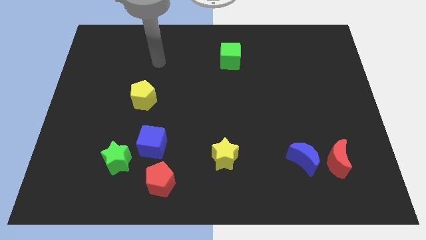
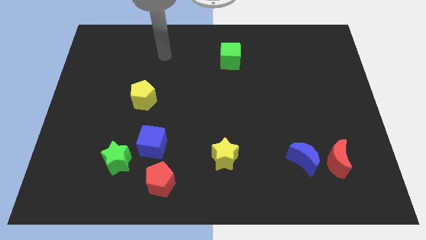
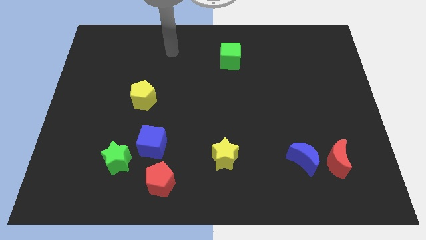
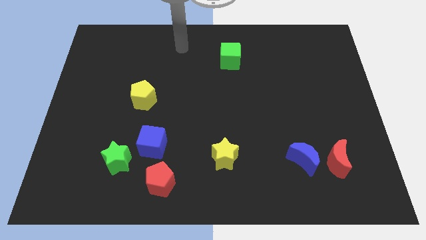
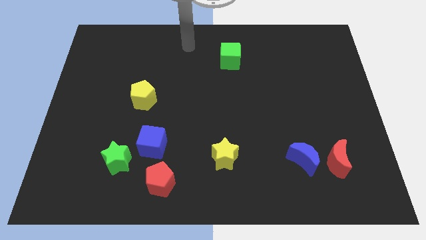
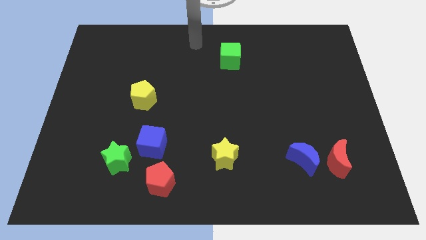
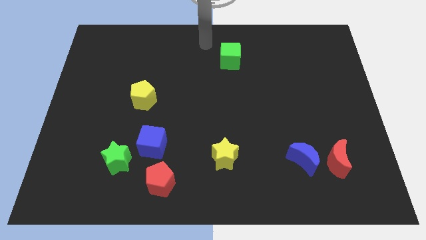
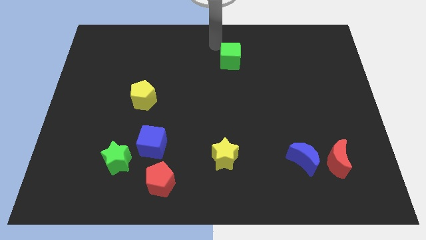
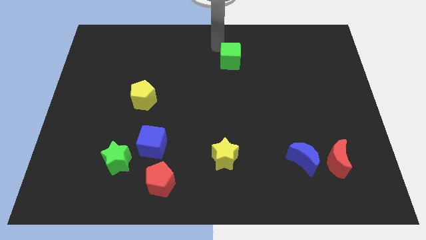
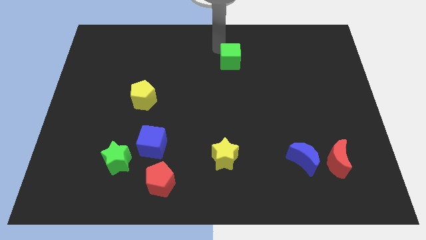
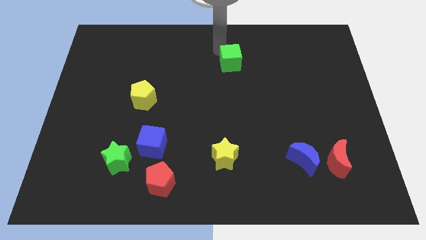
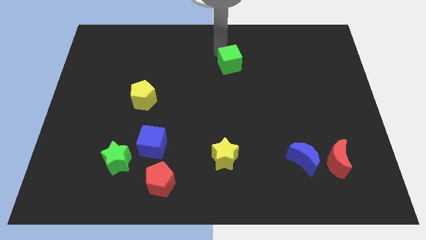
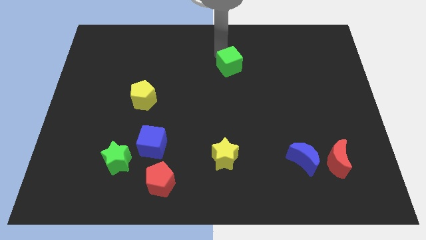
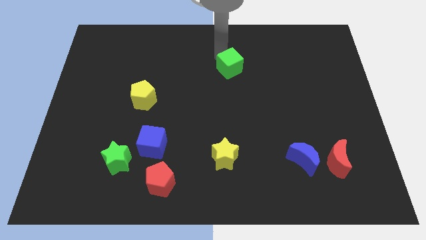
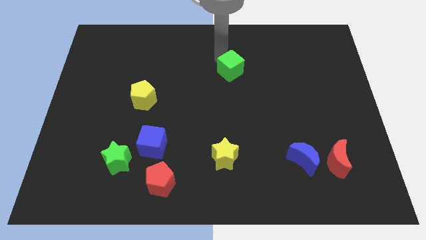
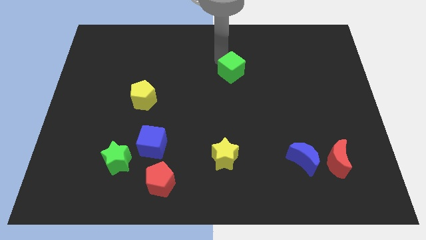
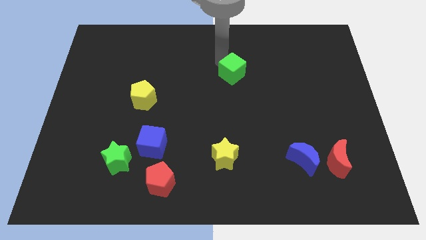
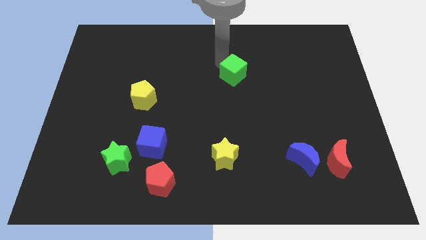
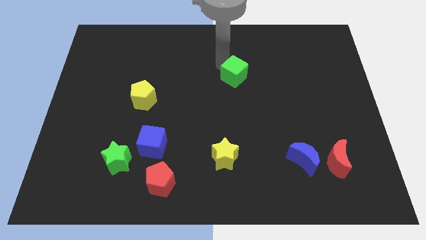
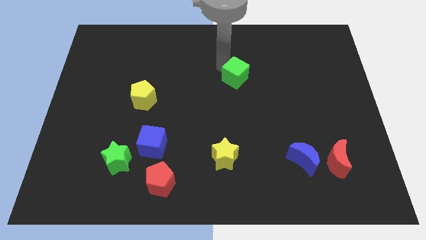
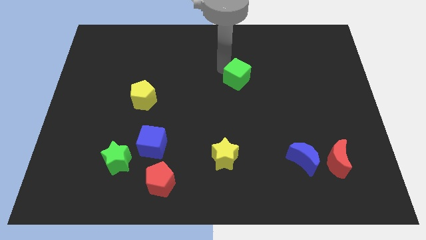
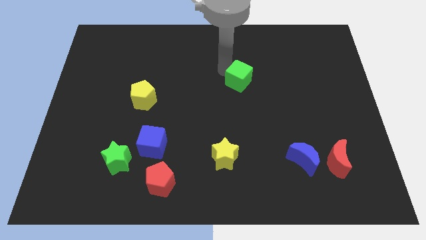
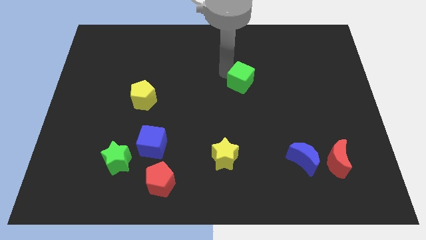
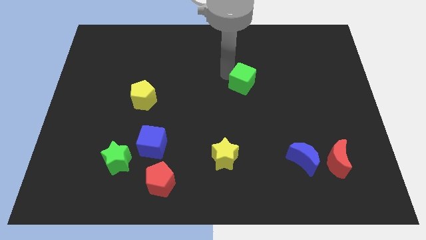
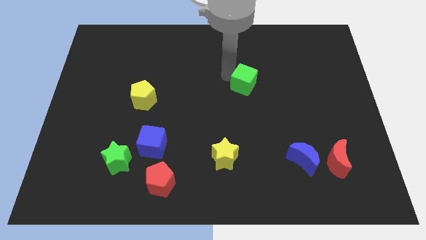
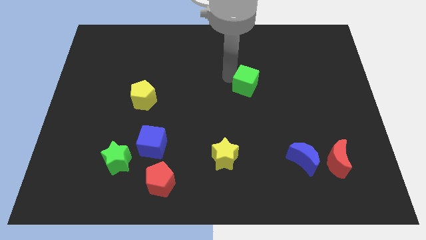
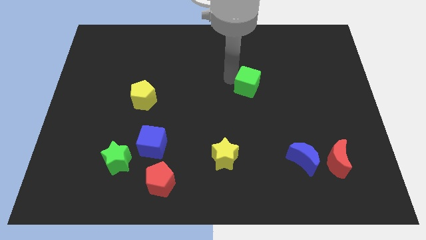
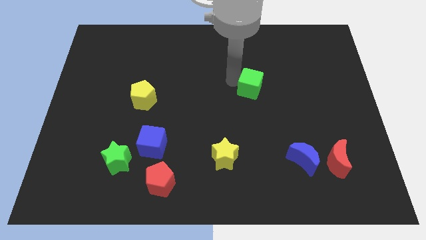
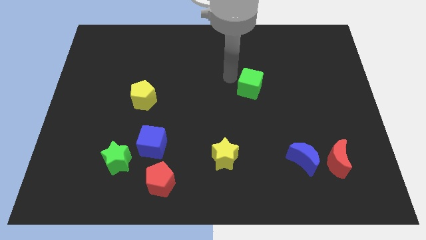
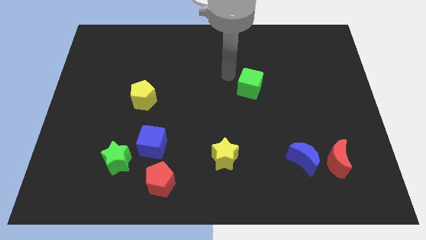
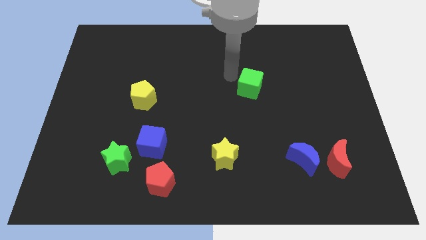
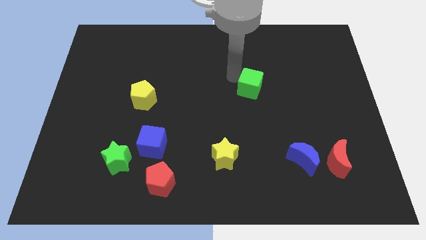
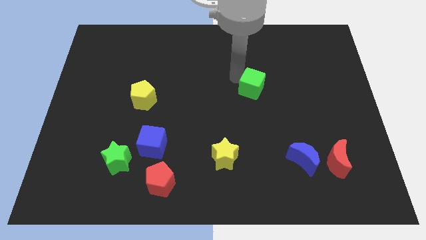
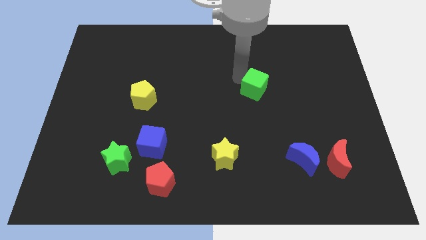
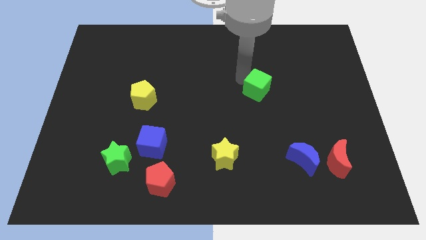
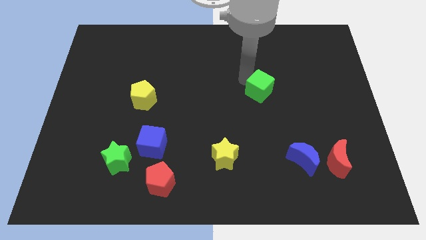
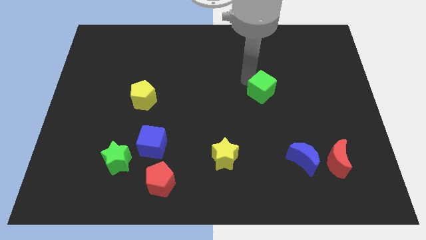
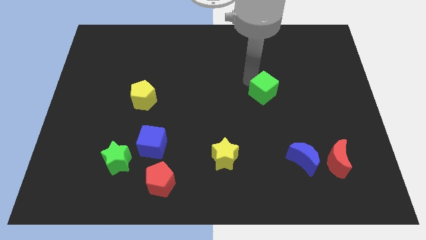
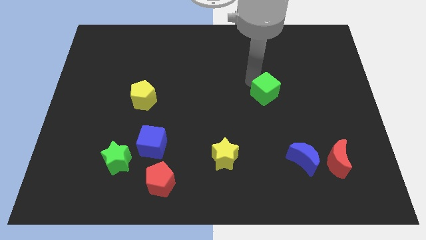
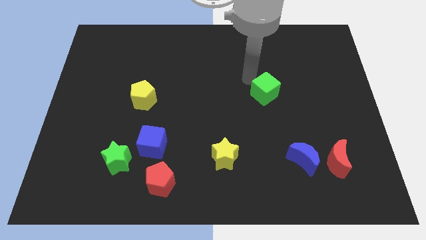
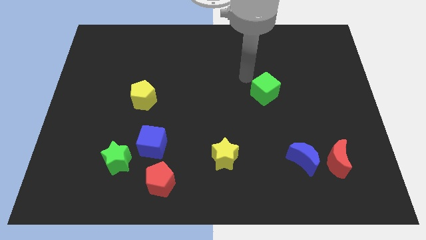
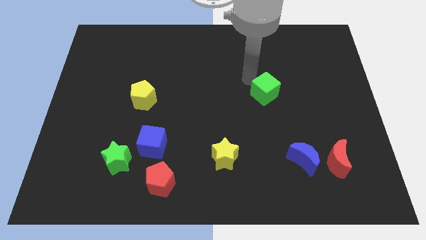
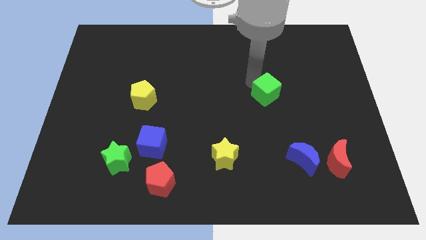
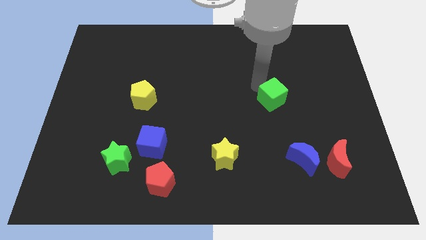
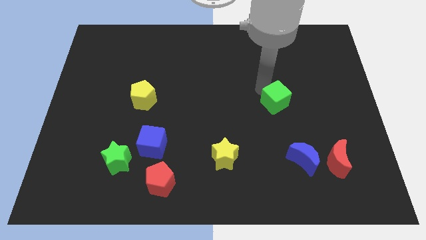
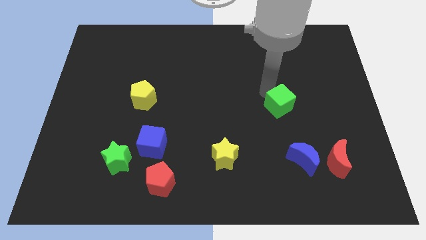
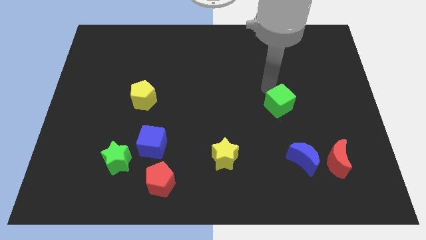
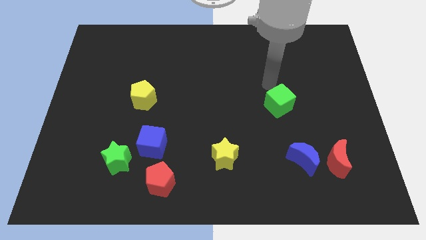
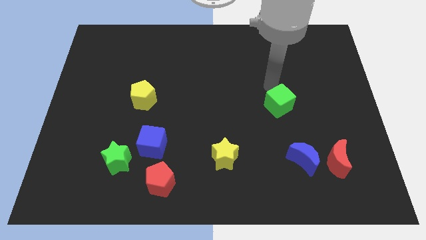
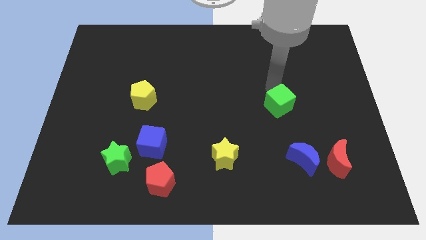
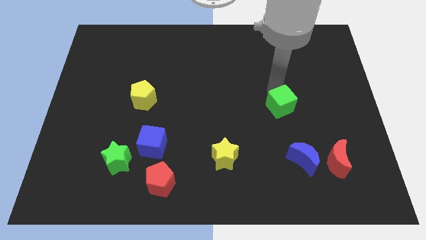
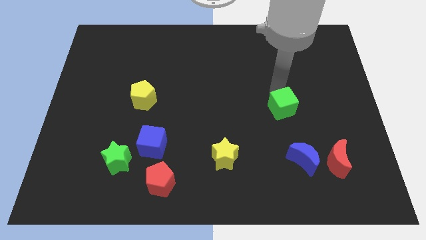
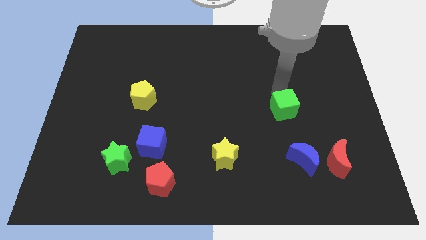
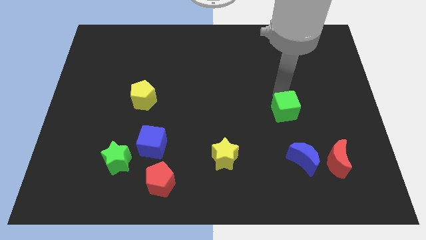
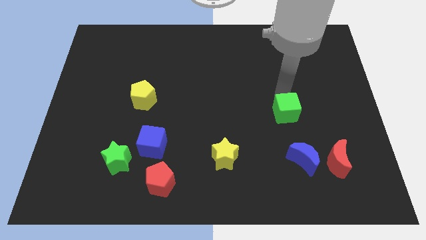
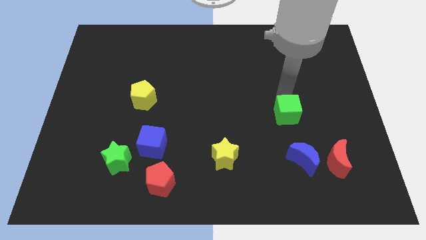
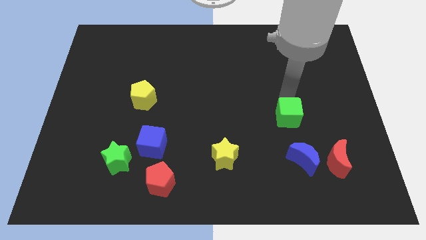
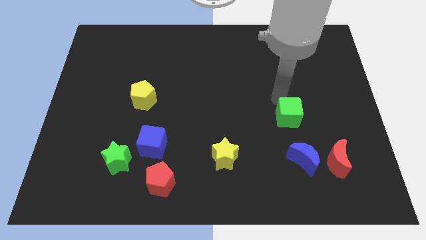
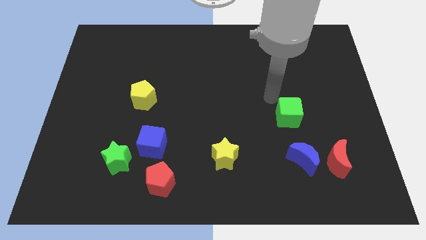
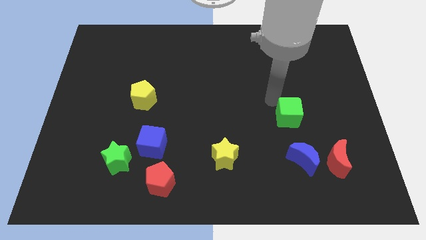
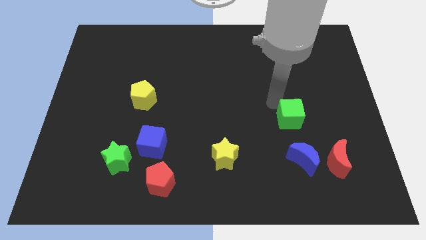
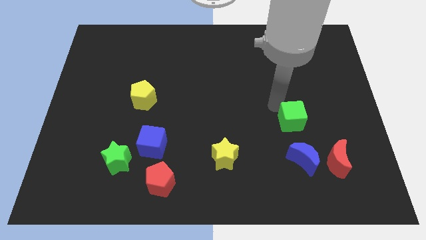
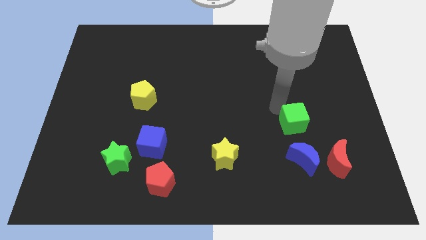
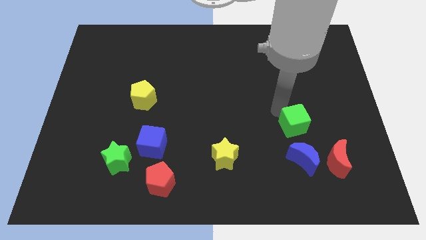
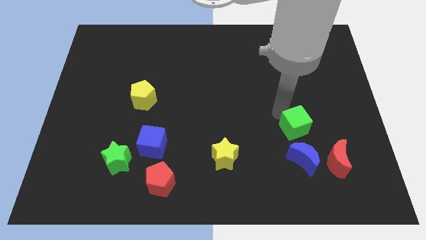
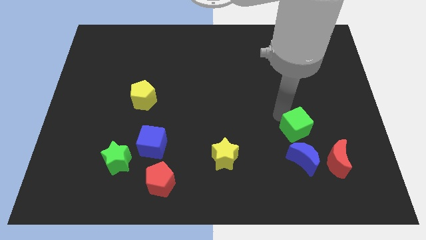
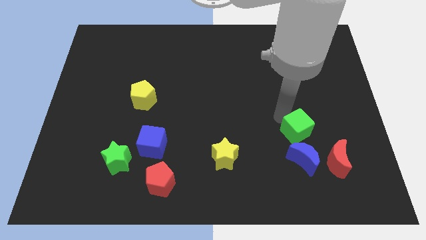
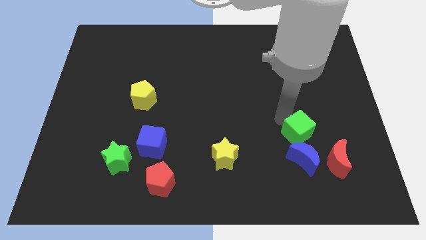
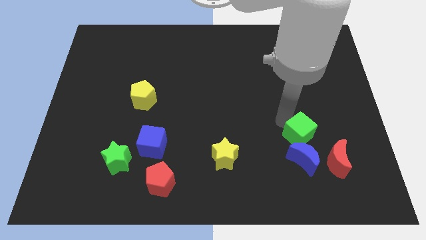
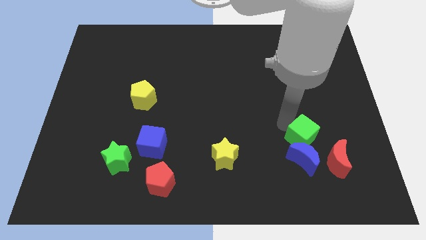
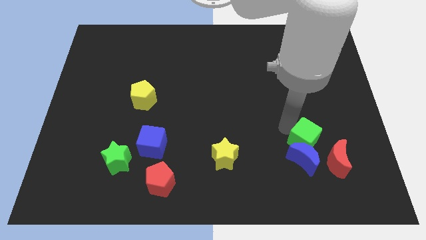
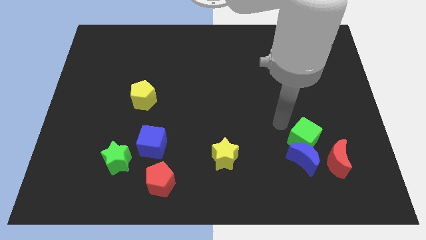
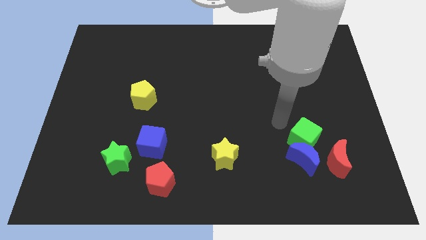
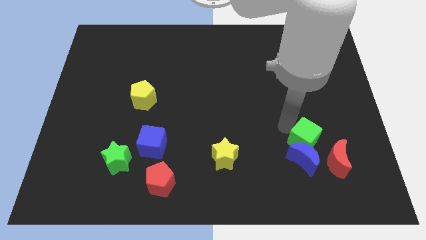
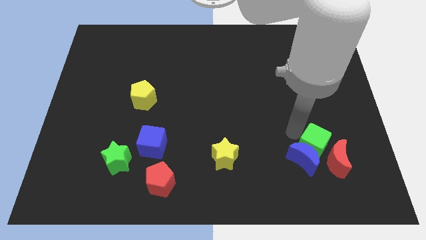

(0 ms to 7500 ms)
slide the green cube next to the red moon
